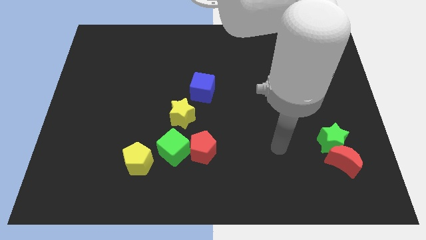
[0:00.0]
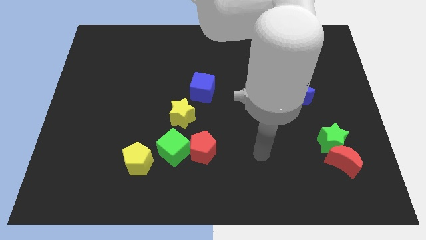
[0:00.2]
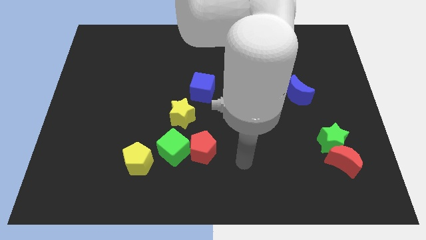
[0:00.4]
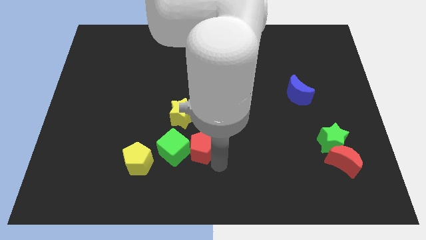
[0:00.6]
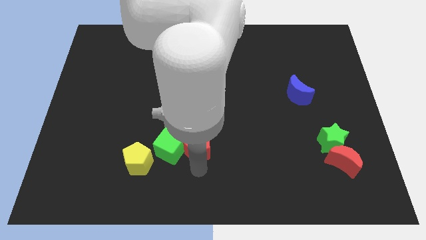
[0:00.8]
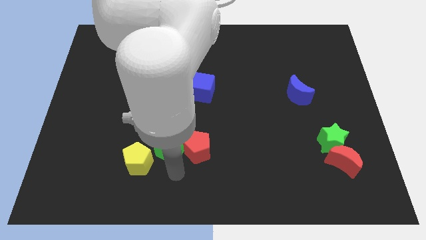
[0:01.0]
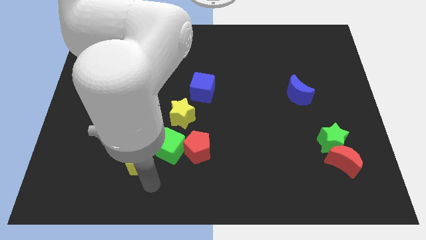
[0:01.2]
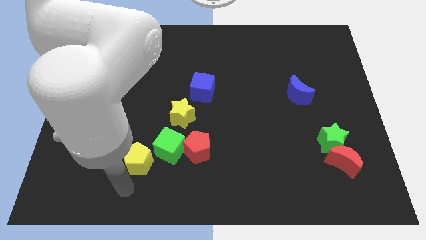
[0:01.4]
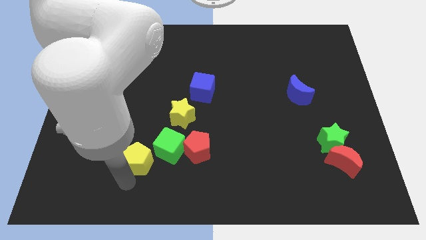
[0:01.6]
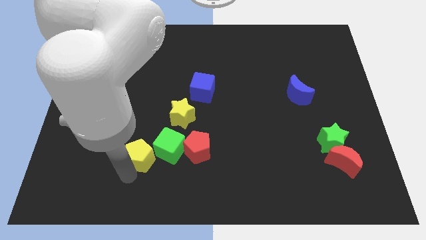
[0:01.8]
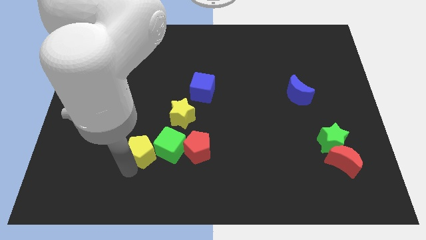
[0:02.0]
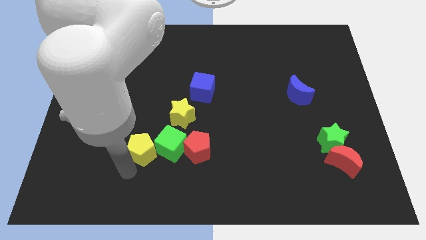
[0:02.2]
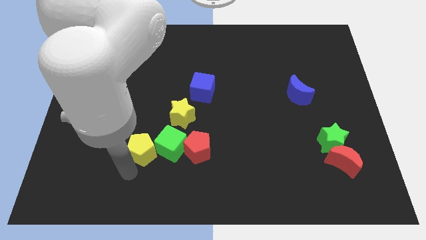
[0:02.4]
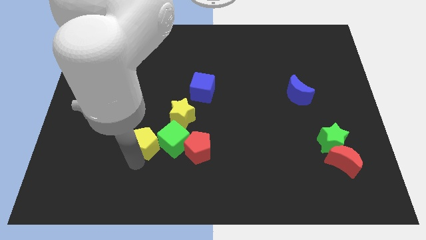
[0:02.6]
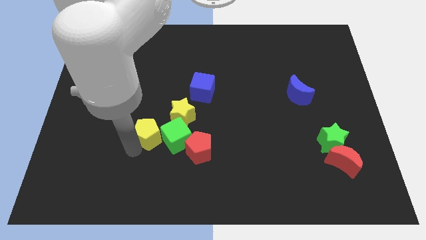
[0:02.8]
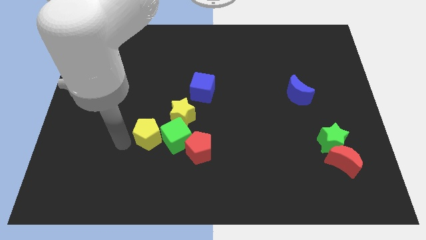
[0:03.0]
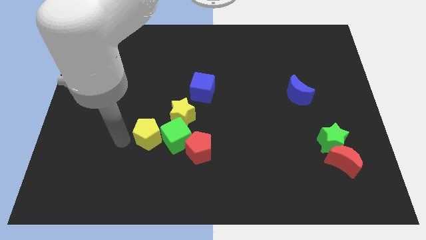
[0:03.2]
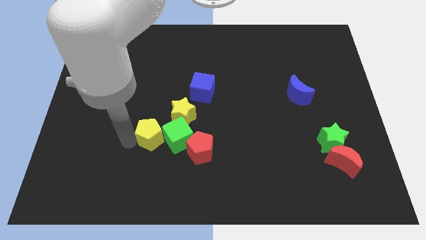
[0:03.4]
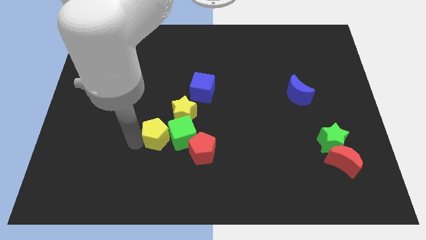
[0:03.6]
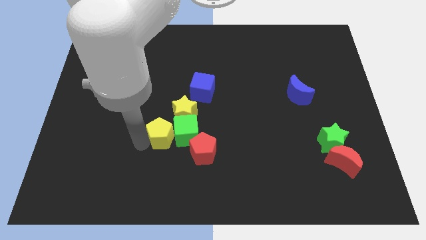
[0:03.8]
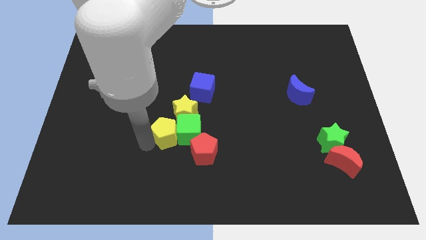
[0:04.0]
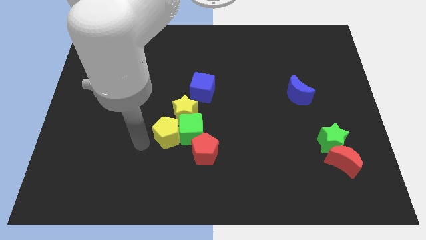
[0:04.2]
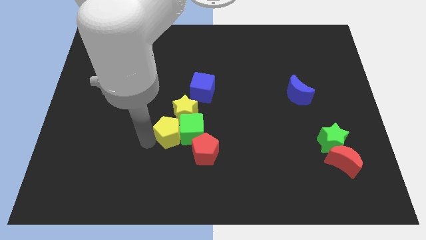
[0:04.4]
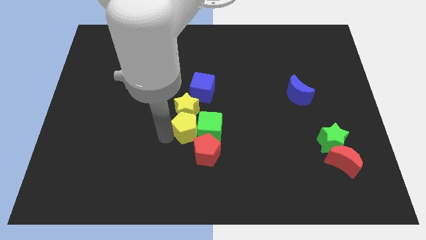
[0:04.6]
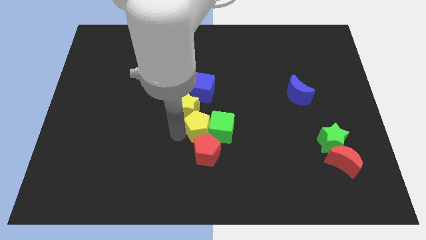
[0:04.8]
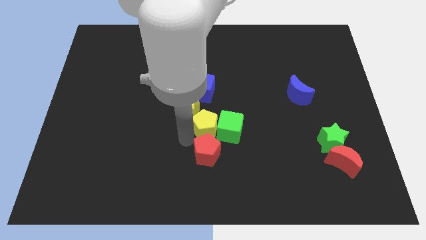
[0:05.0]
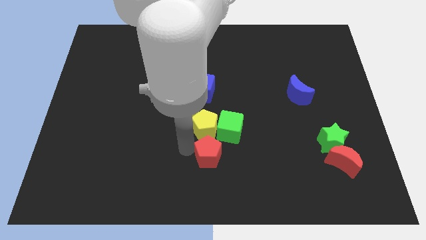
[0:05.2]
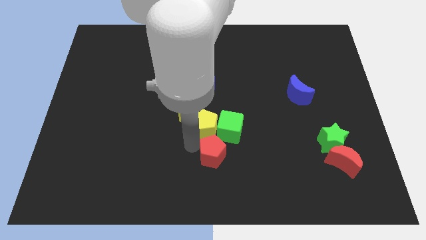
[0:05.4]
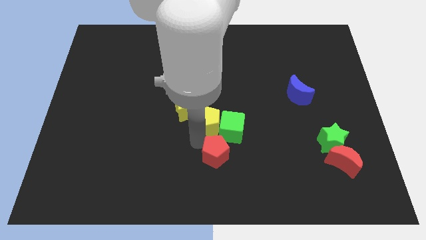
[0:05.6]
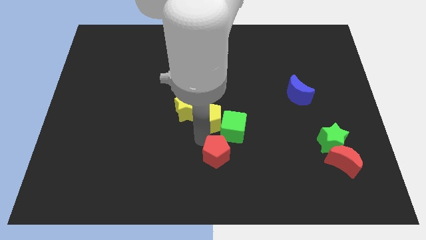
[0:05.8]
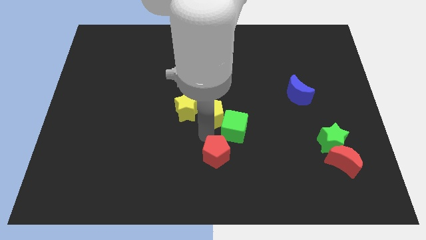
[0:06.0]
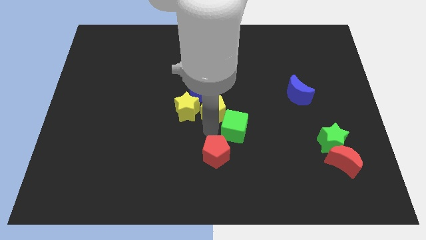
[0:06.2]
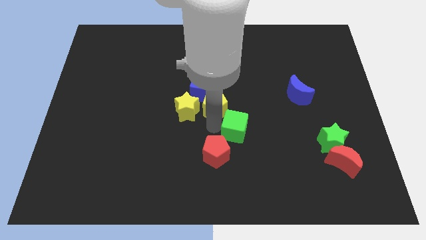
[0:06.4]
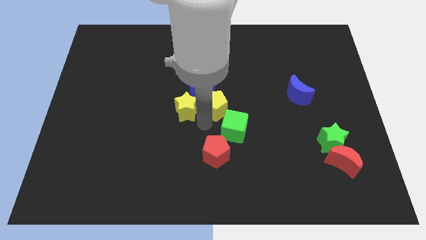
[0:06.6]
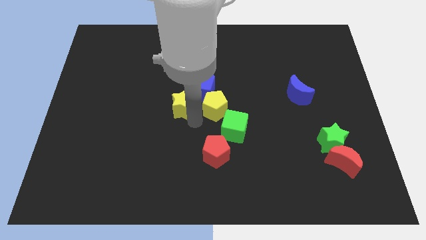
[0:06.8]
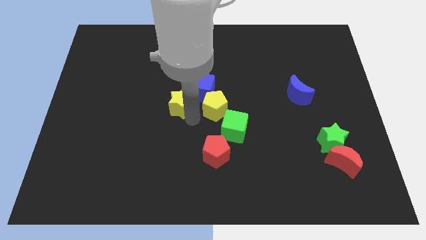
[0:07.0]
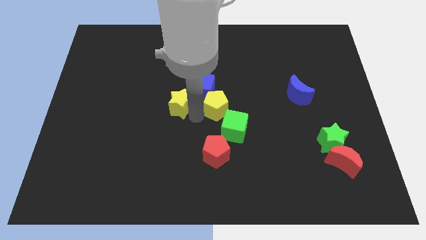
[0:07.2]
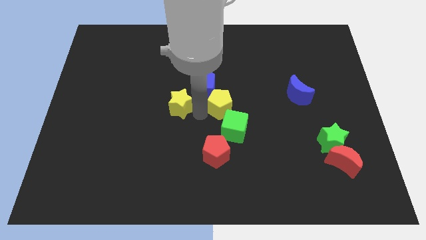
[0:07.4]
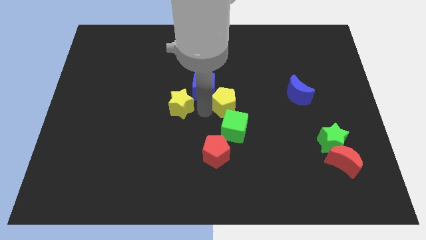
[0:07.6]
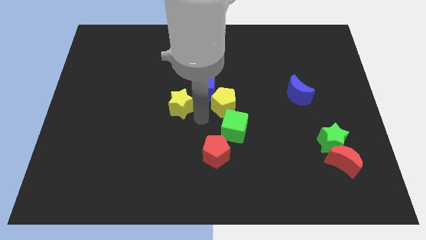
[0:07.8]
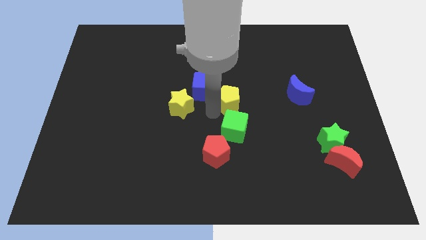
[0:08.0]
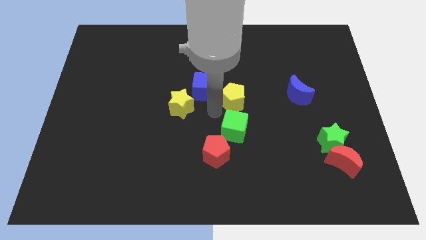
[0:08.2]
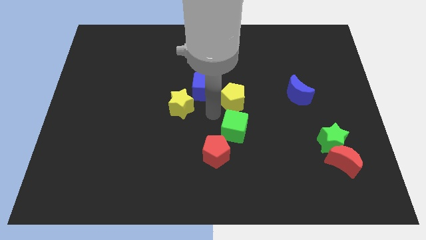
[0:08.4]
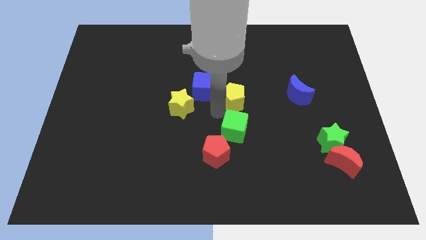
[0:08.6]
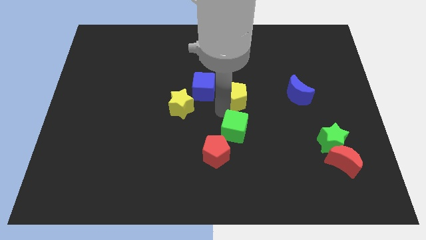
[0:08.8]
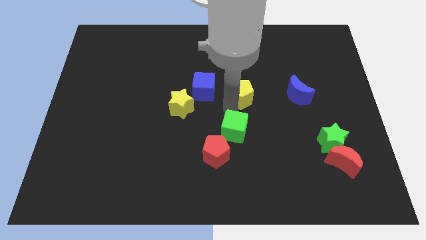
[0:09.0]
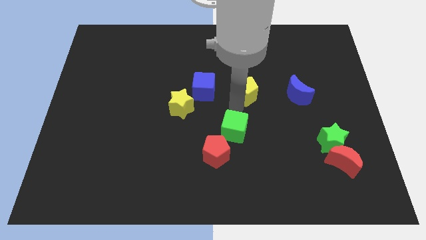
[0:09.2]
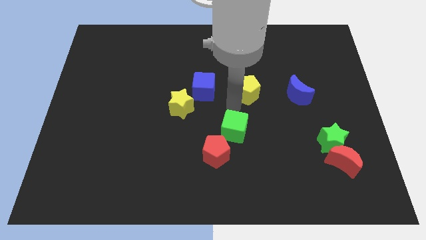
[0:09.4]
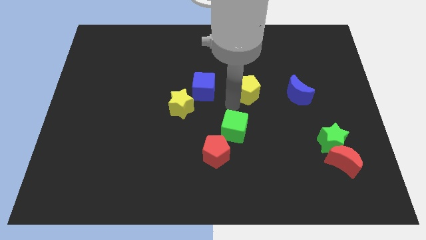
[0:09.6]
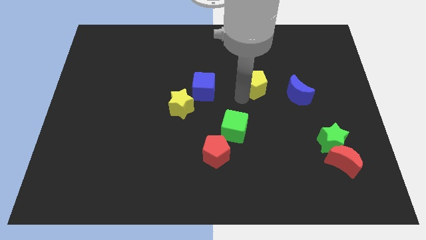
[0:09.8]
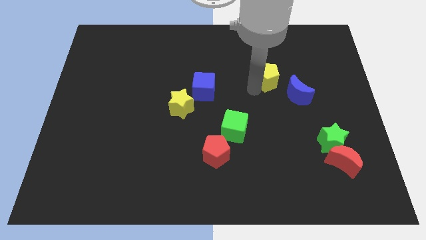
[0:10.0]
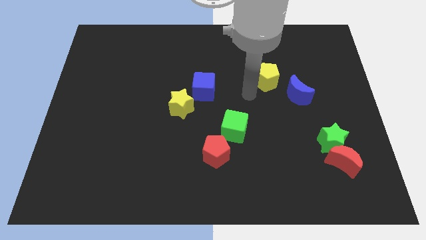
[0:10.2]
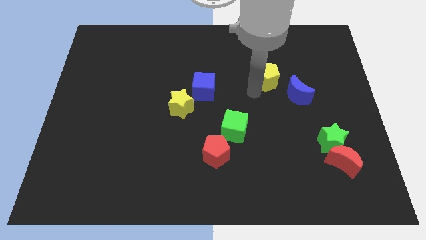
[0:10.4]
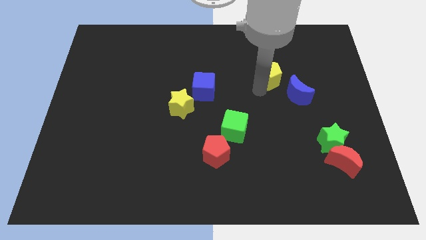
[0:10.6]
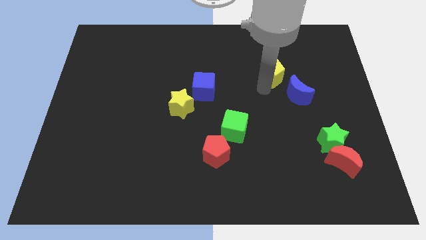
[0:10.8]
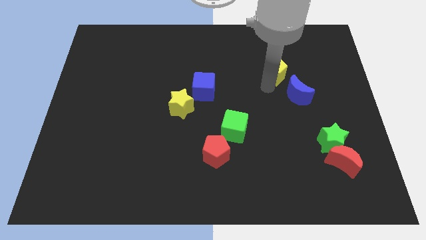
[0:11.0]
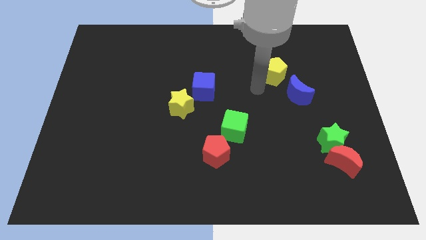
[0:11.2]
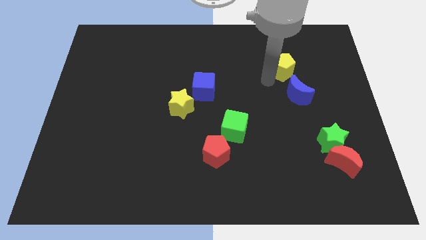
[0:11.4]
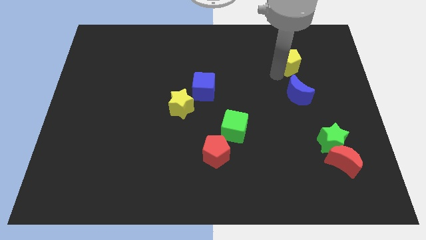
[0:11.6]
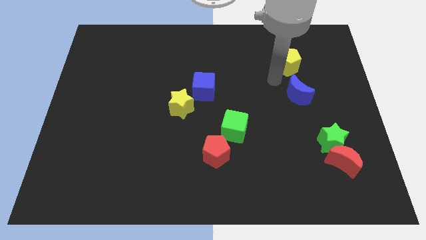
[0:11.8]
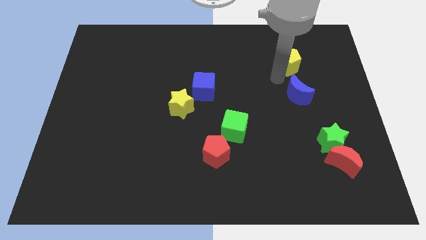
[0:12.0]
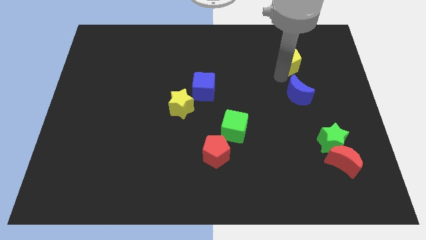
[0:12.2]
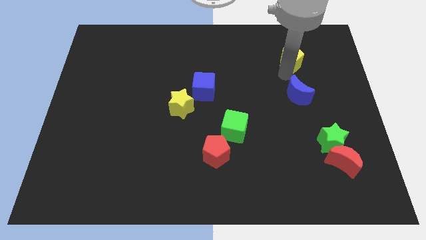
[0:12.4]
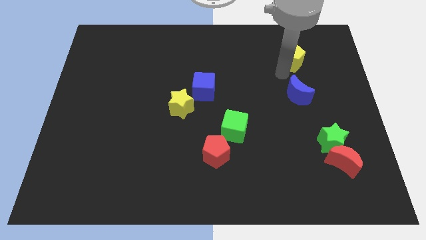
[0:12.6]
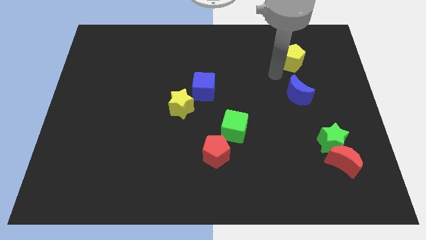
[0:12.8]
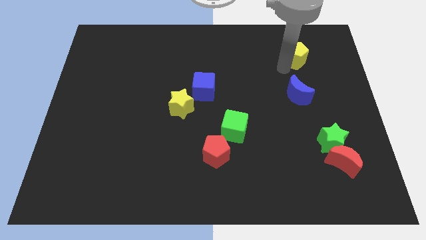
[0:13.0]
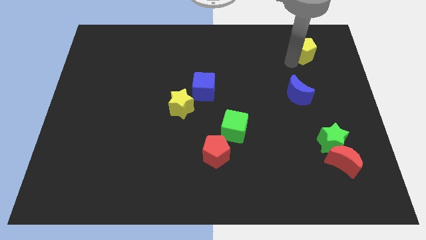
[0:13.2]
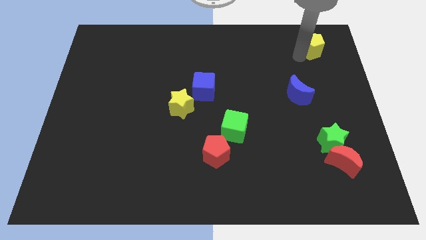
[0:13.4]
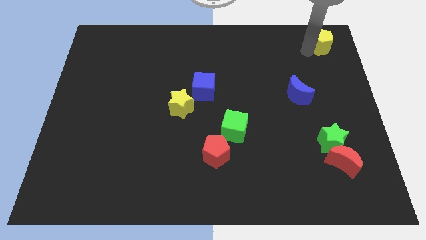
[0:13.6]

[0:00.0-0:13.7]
push the yellow pentagon to the upper right corner
